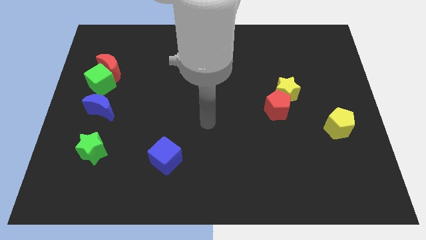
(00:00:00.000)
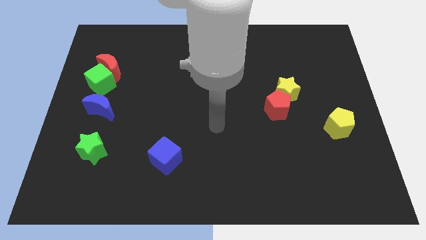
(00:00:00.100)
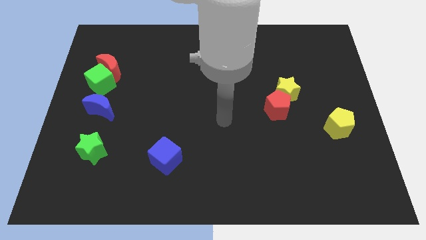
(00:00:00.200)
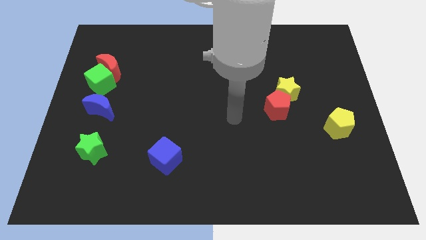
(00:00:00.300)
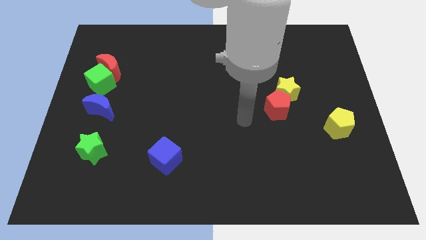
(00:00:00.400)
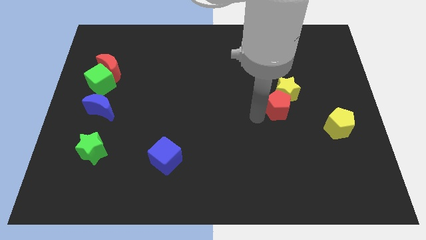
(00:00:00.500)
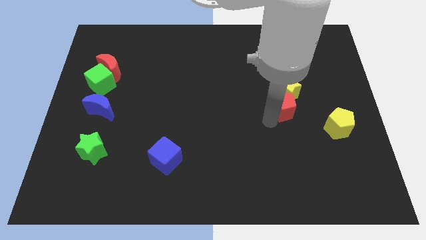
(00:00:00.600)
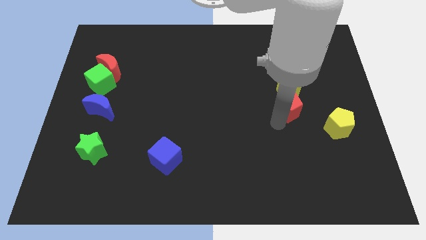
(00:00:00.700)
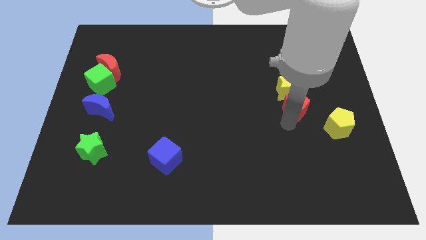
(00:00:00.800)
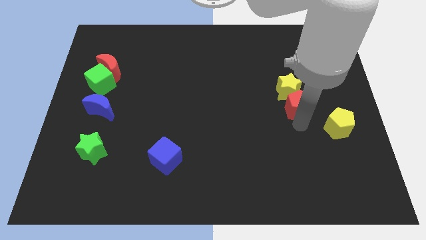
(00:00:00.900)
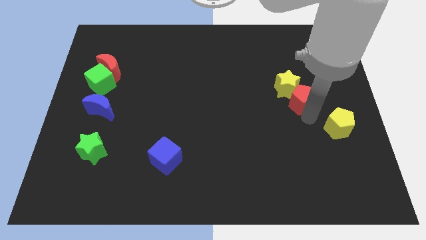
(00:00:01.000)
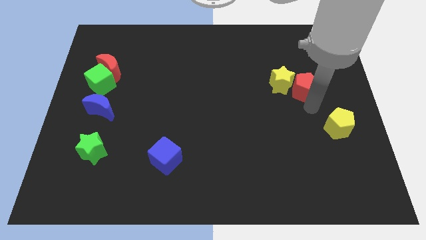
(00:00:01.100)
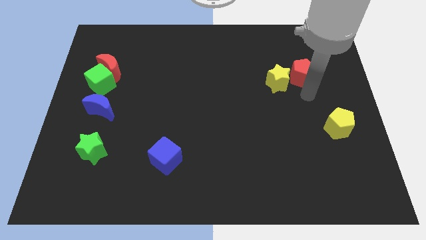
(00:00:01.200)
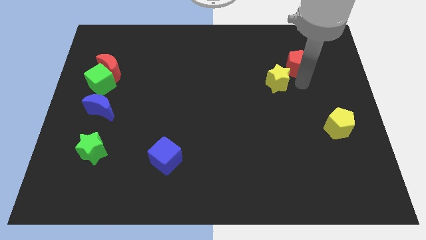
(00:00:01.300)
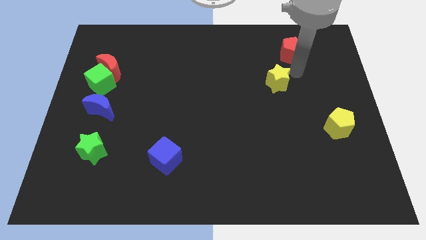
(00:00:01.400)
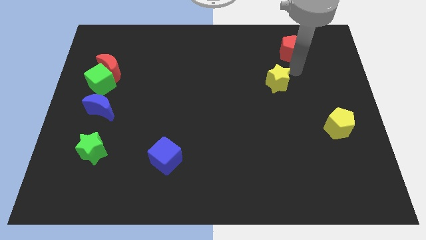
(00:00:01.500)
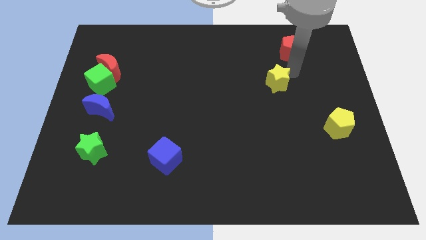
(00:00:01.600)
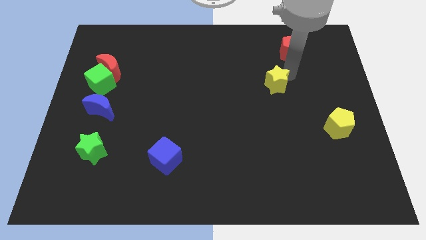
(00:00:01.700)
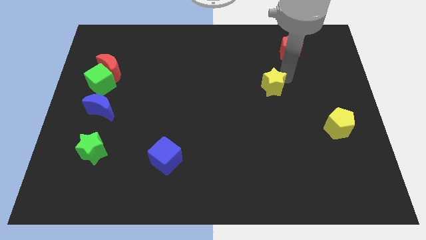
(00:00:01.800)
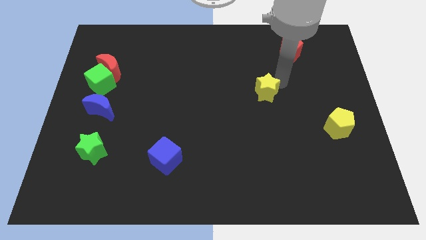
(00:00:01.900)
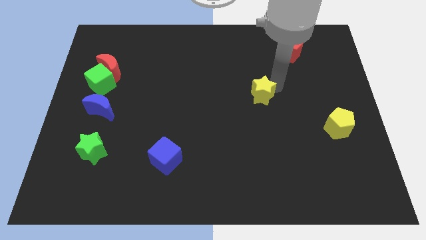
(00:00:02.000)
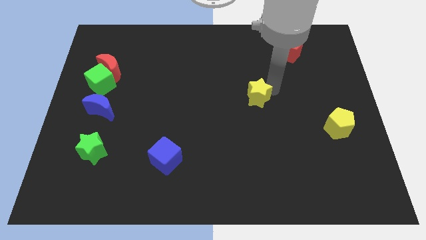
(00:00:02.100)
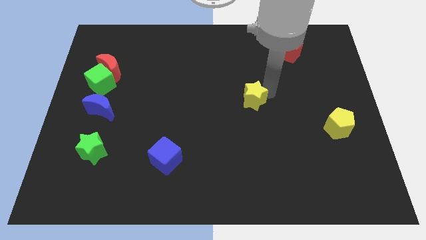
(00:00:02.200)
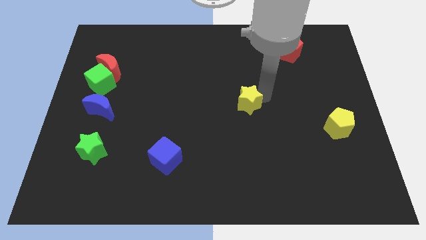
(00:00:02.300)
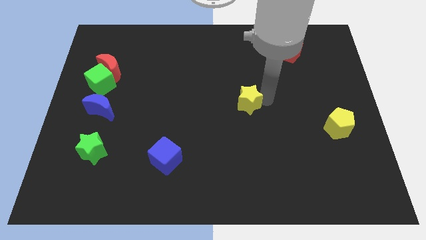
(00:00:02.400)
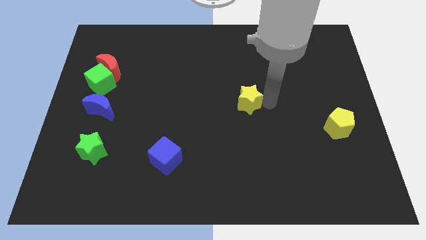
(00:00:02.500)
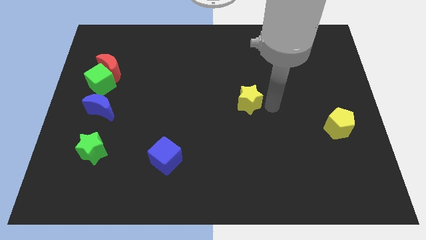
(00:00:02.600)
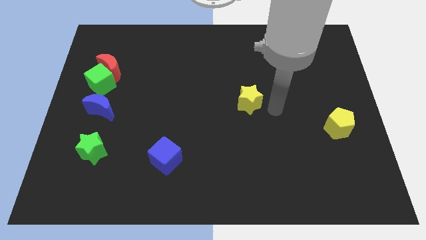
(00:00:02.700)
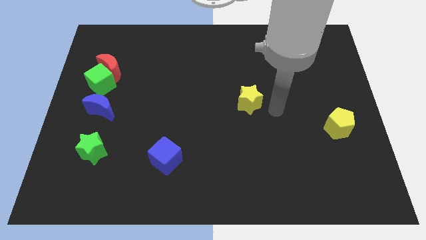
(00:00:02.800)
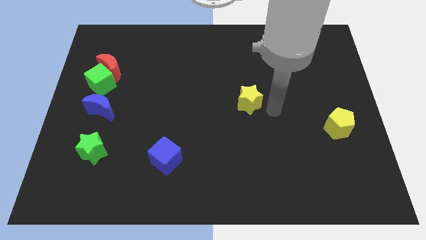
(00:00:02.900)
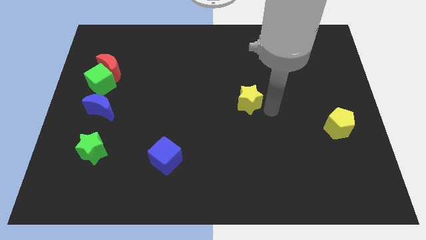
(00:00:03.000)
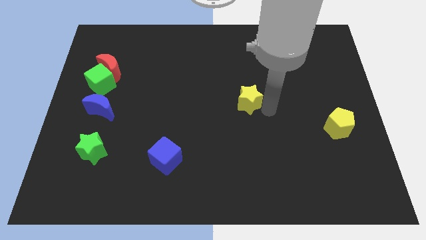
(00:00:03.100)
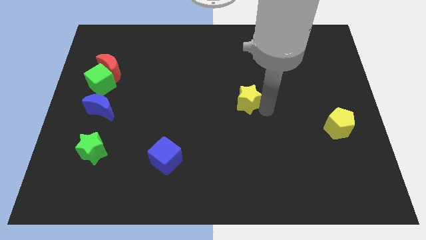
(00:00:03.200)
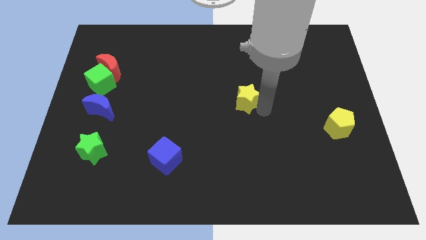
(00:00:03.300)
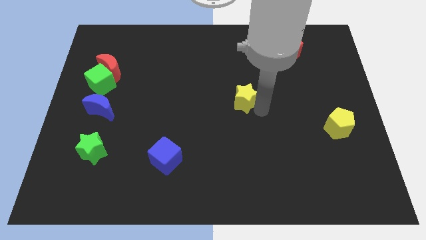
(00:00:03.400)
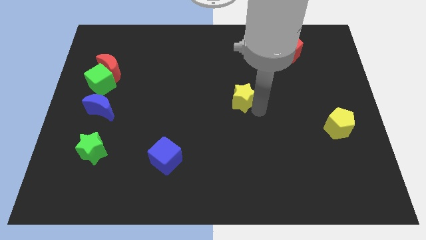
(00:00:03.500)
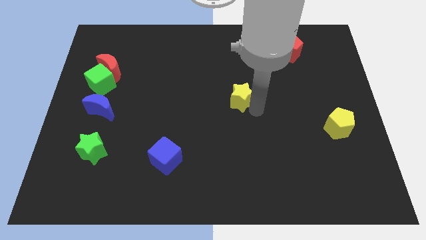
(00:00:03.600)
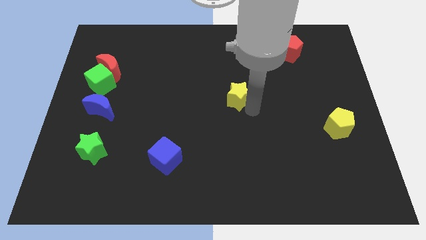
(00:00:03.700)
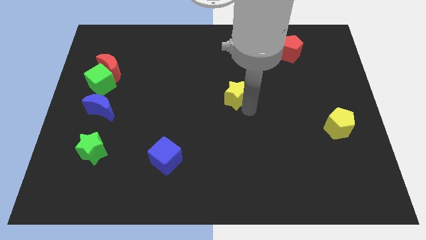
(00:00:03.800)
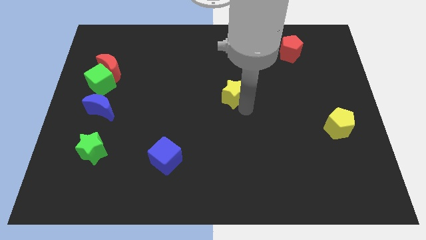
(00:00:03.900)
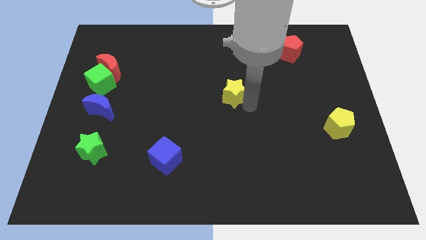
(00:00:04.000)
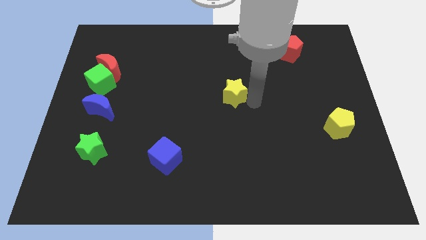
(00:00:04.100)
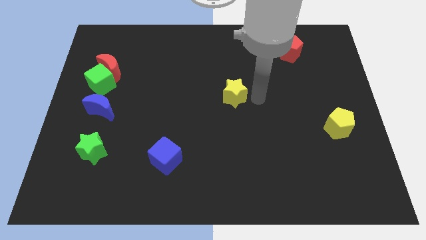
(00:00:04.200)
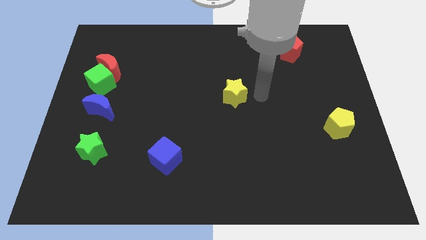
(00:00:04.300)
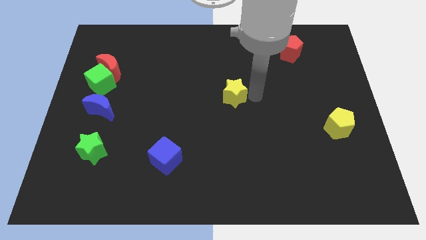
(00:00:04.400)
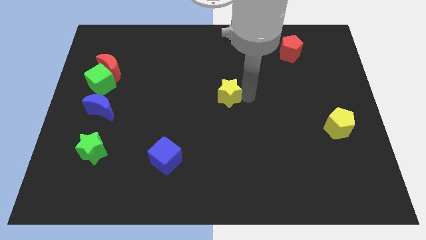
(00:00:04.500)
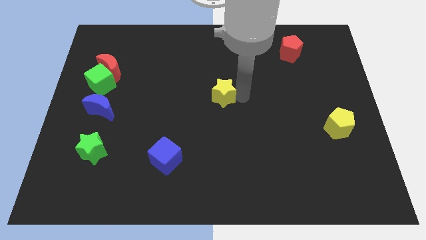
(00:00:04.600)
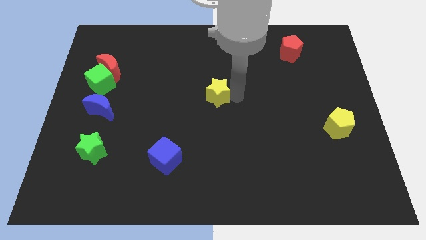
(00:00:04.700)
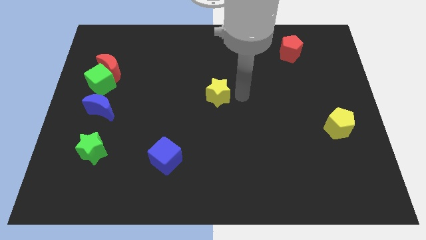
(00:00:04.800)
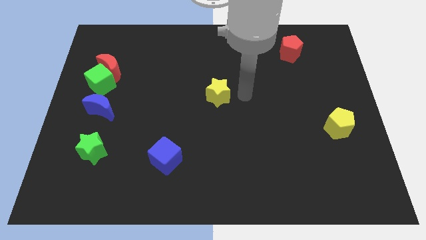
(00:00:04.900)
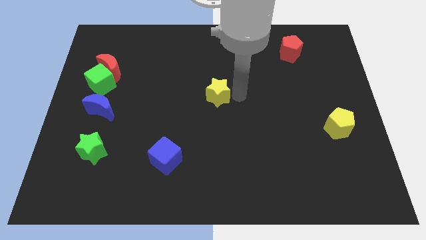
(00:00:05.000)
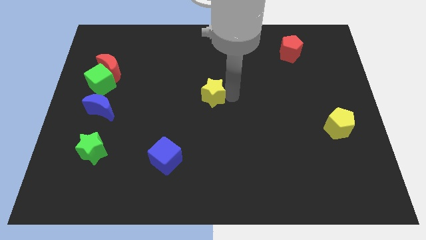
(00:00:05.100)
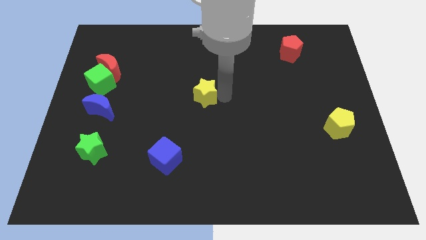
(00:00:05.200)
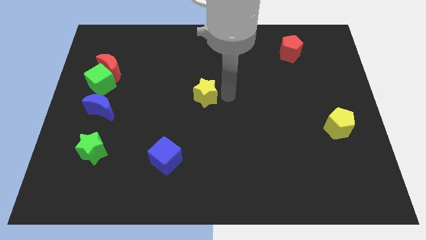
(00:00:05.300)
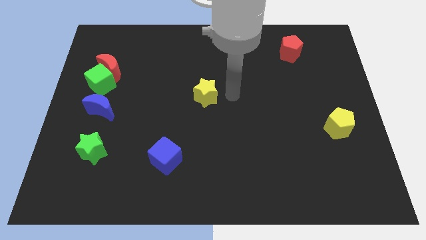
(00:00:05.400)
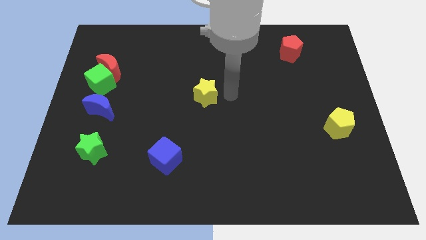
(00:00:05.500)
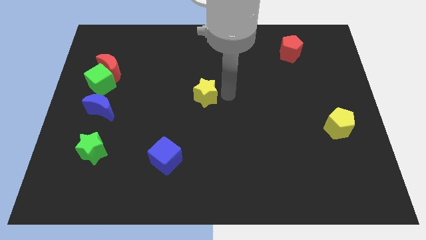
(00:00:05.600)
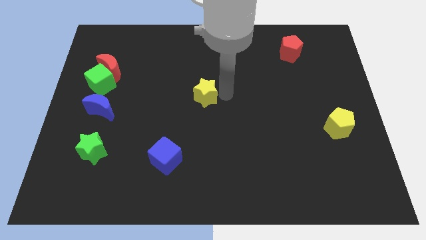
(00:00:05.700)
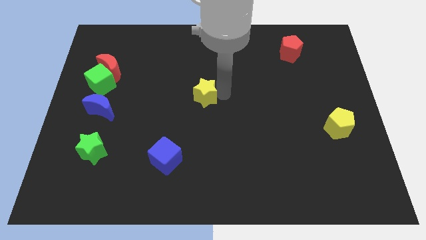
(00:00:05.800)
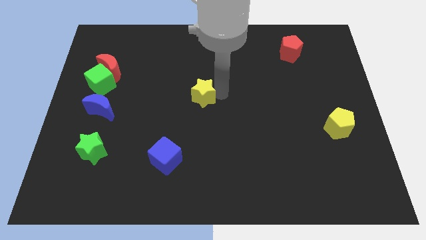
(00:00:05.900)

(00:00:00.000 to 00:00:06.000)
push the yellow star to the left

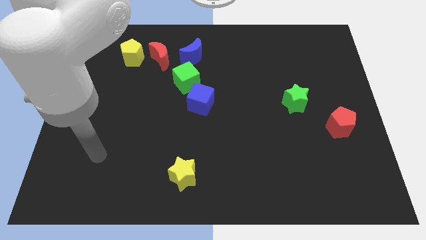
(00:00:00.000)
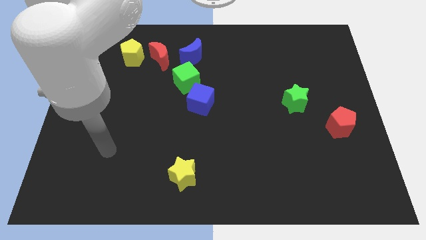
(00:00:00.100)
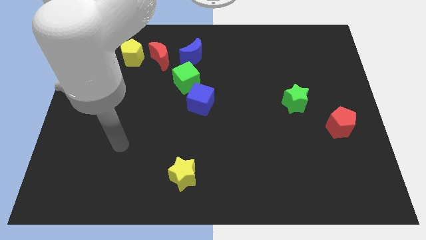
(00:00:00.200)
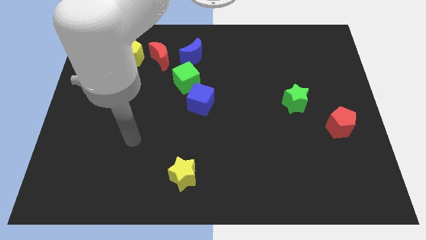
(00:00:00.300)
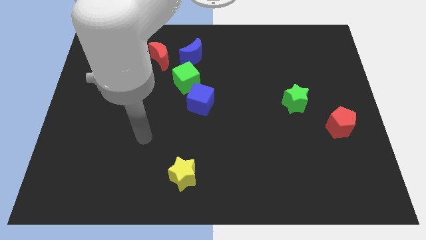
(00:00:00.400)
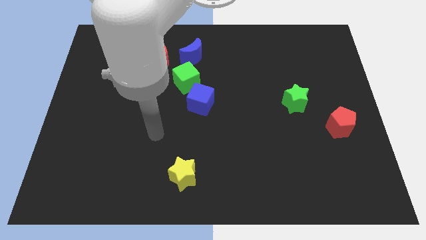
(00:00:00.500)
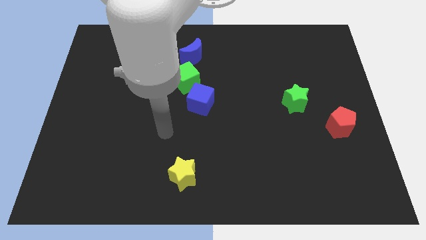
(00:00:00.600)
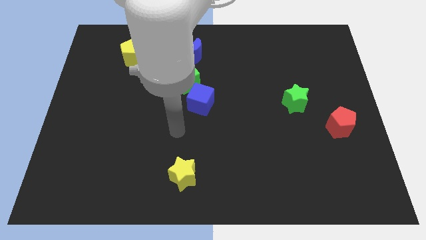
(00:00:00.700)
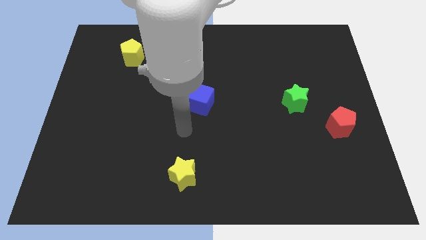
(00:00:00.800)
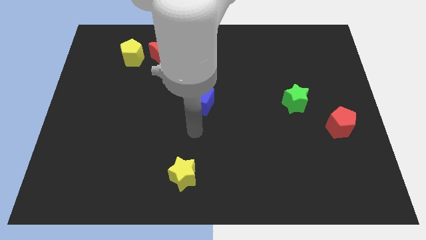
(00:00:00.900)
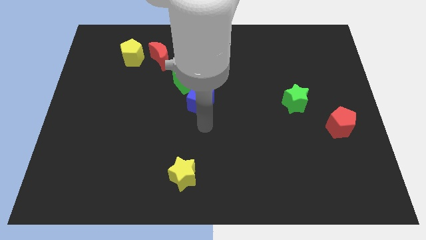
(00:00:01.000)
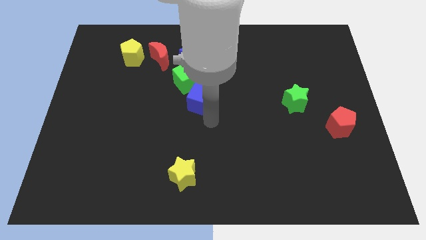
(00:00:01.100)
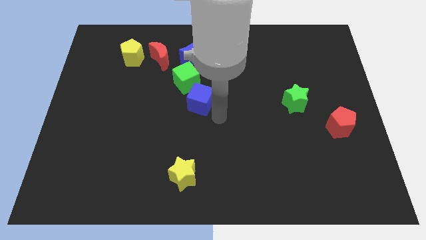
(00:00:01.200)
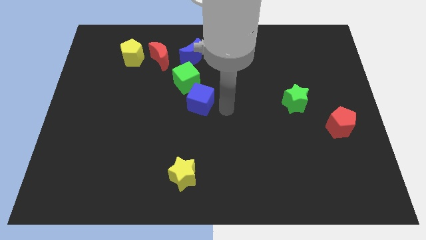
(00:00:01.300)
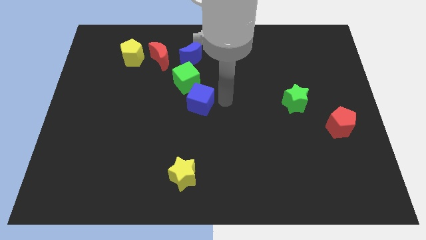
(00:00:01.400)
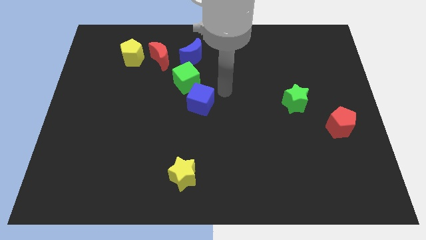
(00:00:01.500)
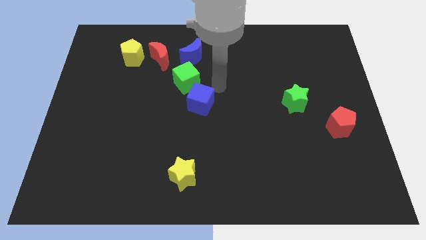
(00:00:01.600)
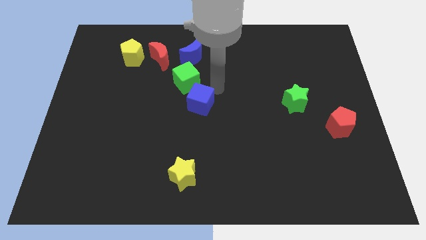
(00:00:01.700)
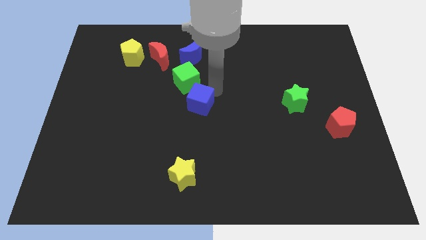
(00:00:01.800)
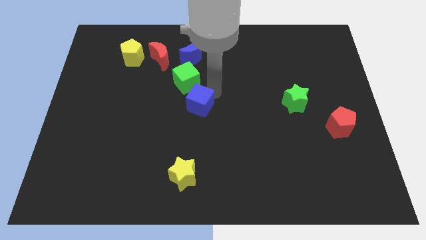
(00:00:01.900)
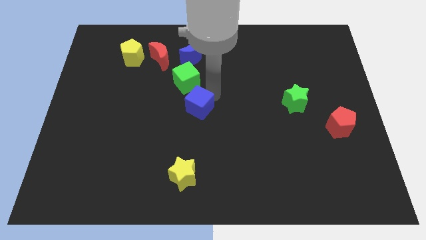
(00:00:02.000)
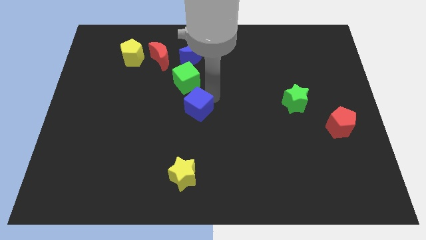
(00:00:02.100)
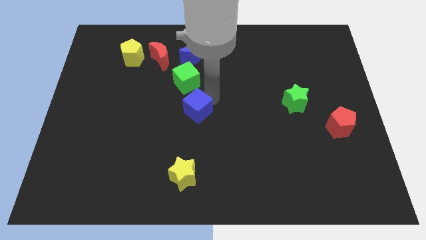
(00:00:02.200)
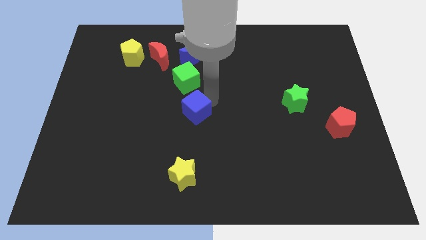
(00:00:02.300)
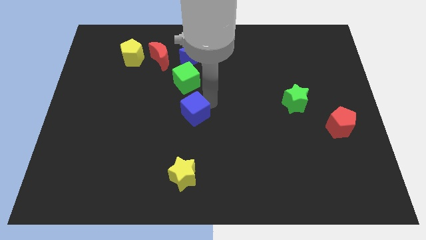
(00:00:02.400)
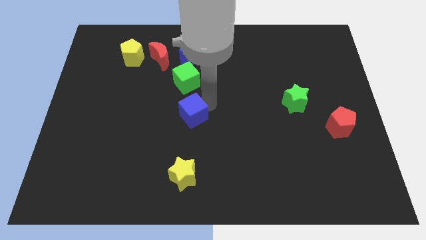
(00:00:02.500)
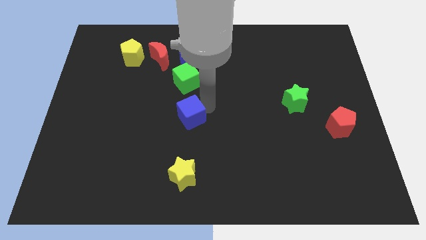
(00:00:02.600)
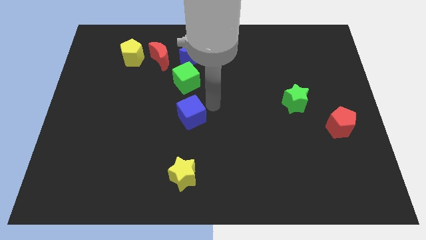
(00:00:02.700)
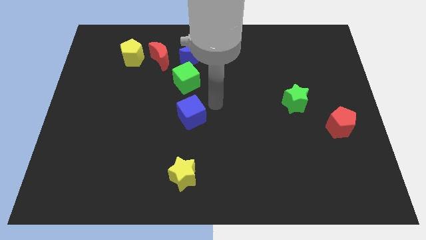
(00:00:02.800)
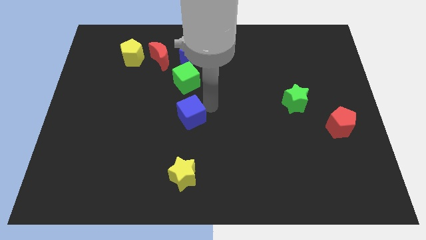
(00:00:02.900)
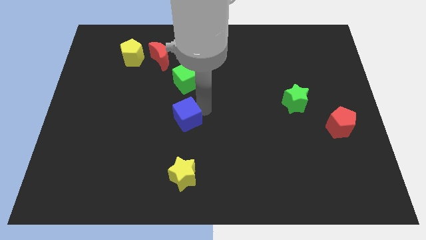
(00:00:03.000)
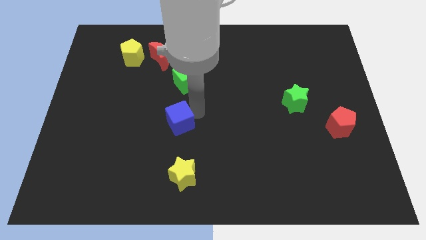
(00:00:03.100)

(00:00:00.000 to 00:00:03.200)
slightly slide the blue cube diagonally downwards and to the left
